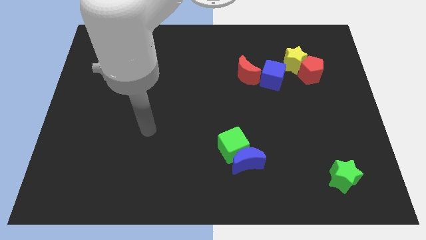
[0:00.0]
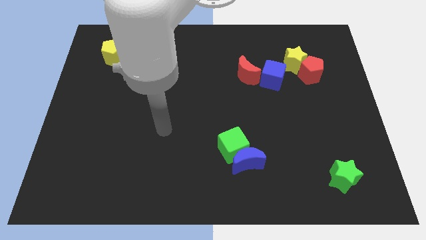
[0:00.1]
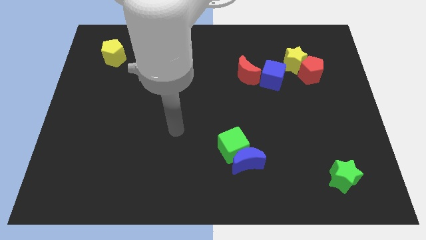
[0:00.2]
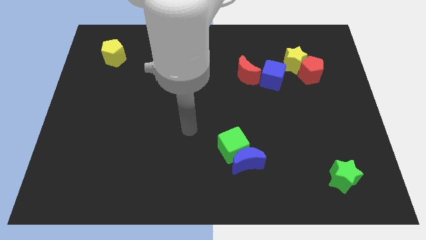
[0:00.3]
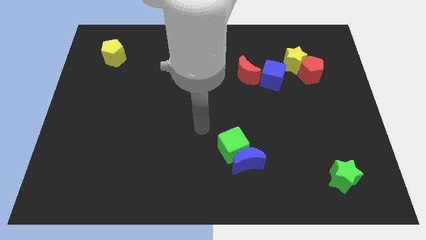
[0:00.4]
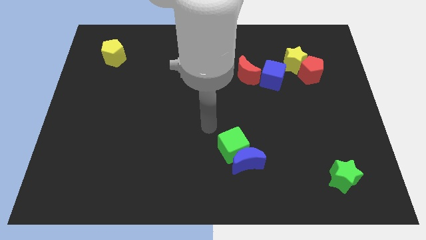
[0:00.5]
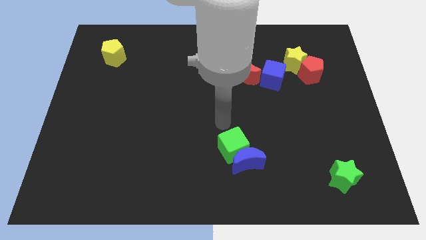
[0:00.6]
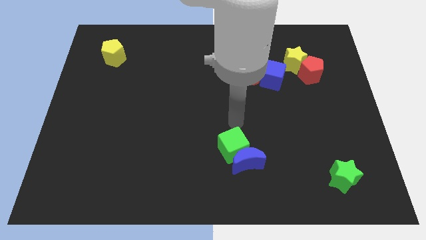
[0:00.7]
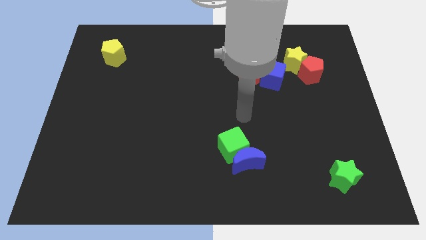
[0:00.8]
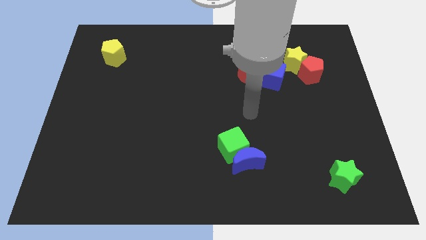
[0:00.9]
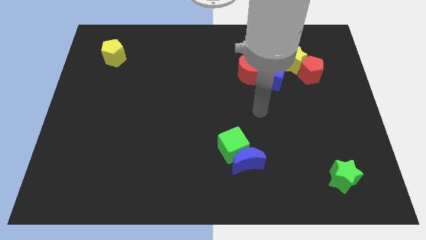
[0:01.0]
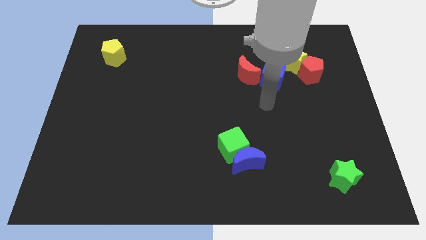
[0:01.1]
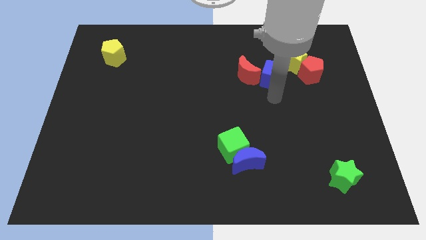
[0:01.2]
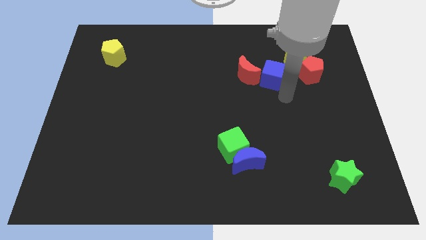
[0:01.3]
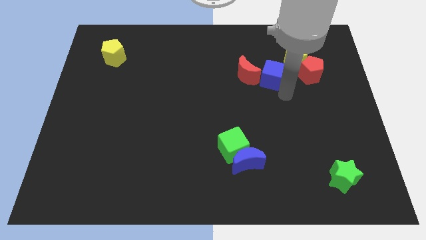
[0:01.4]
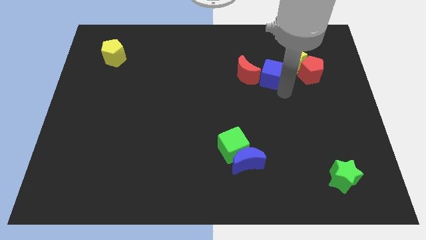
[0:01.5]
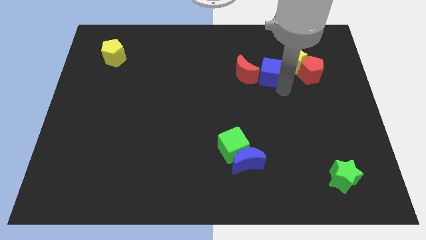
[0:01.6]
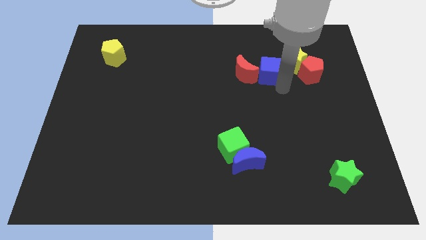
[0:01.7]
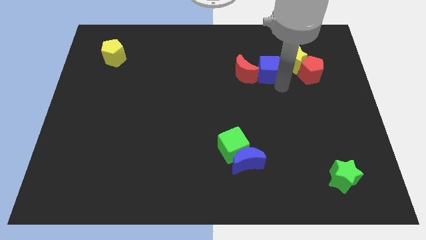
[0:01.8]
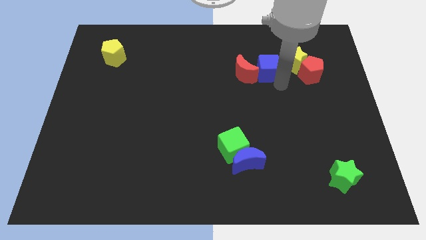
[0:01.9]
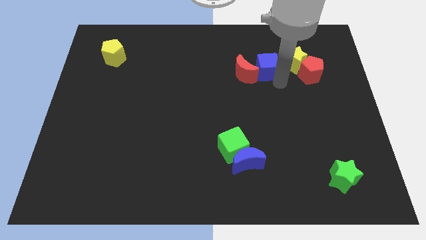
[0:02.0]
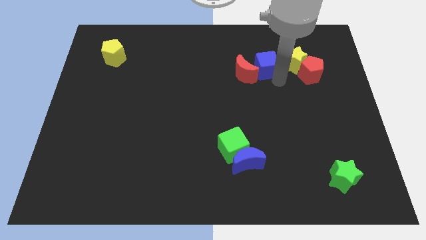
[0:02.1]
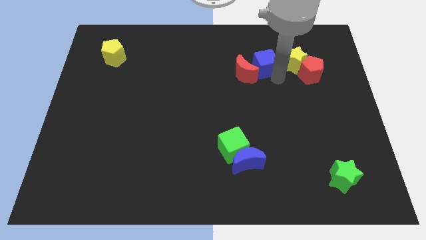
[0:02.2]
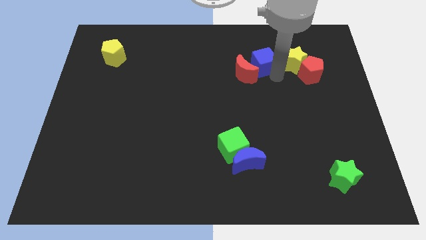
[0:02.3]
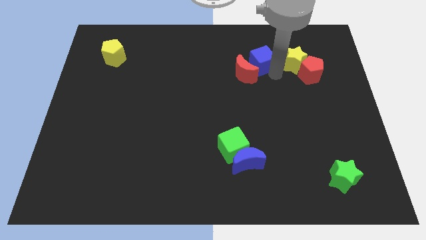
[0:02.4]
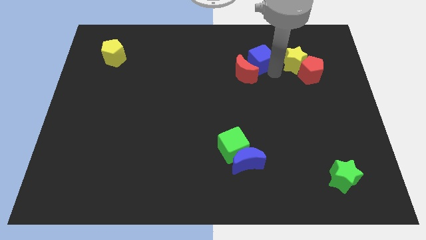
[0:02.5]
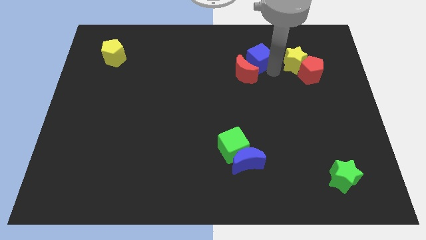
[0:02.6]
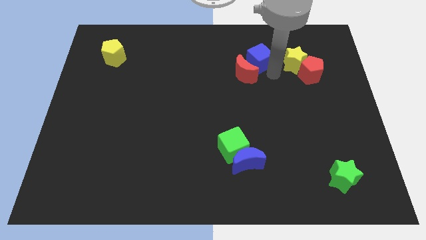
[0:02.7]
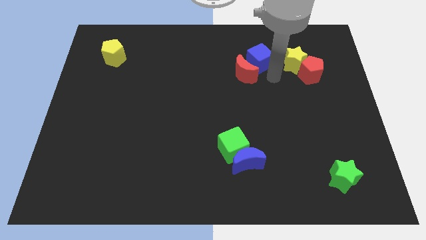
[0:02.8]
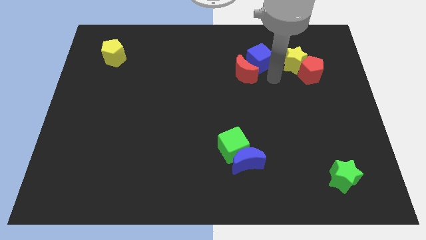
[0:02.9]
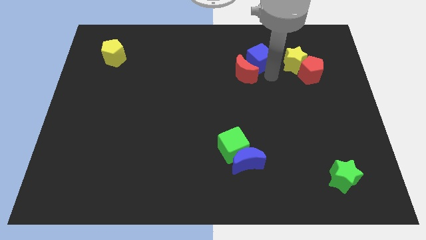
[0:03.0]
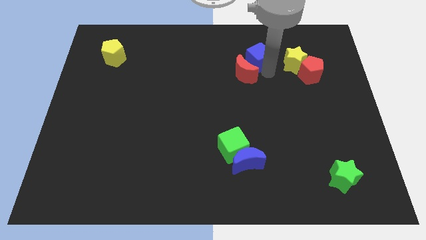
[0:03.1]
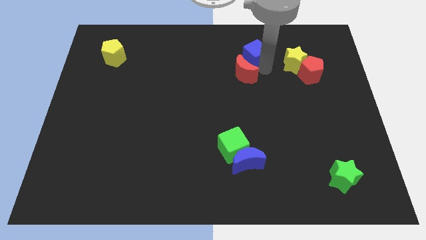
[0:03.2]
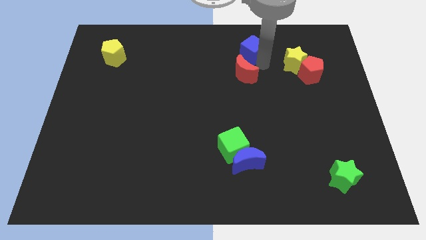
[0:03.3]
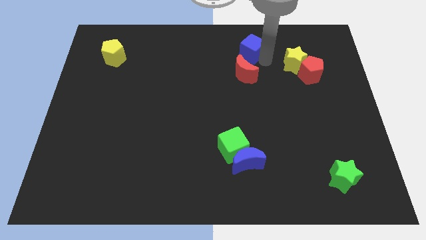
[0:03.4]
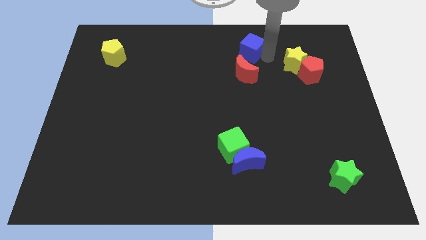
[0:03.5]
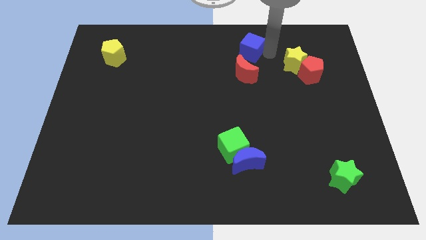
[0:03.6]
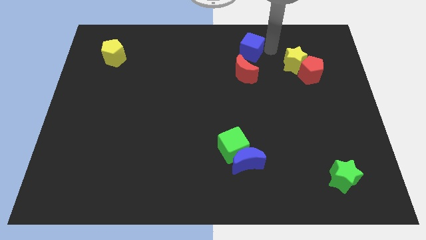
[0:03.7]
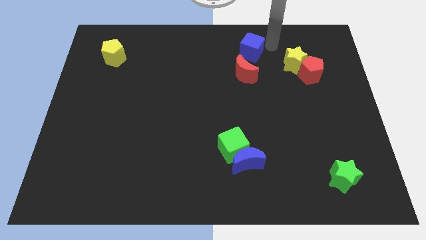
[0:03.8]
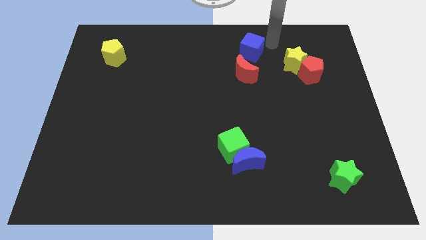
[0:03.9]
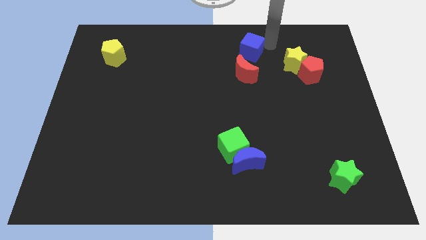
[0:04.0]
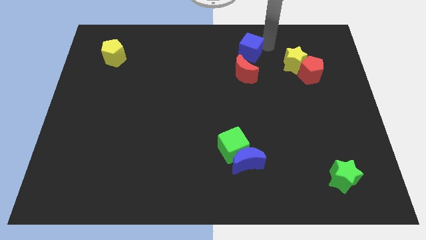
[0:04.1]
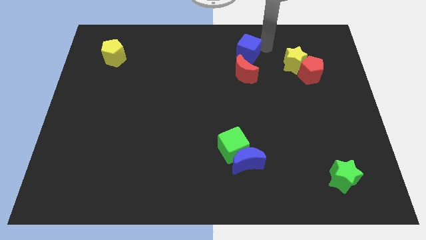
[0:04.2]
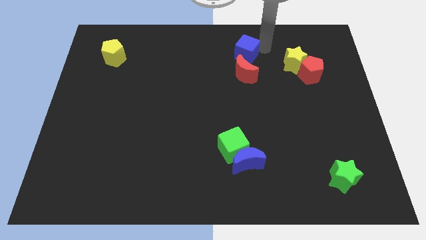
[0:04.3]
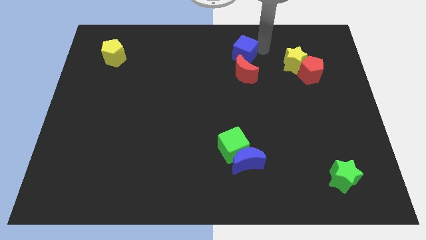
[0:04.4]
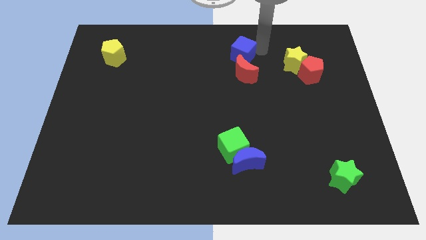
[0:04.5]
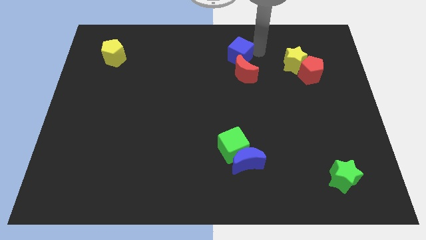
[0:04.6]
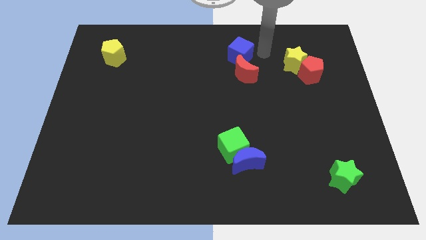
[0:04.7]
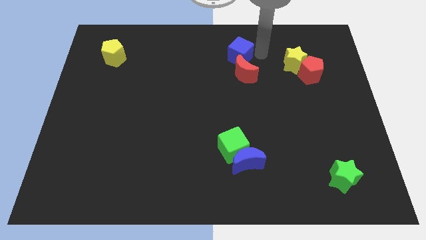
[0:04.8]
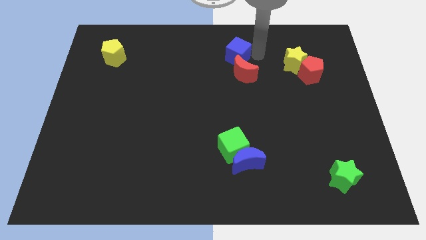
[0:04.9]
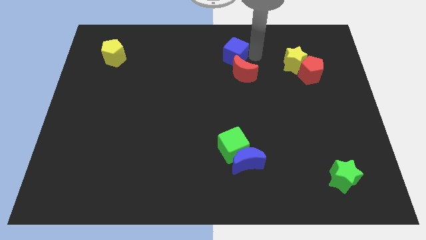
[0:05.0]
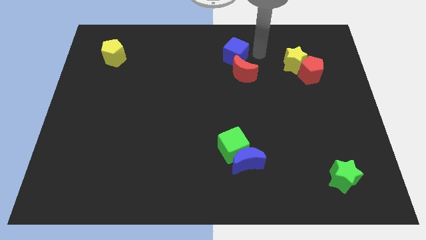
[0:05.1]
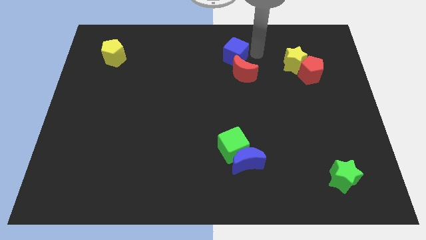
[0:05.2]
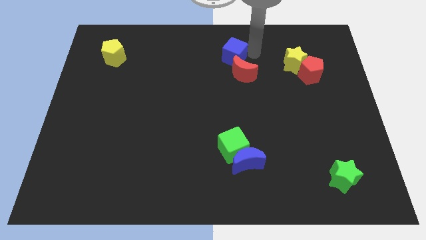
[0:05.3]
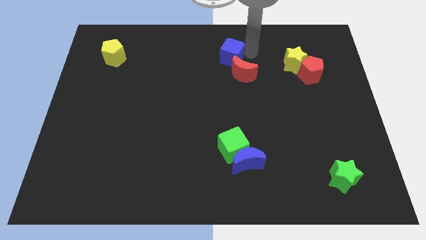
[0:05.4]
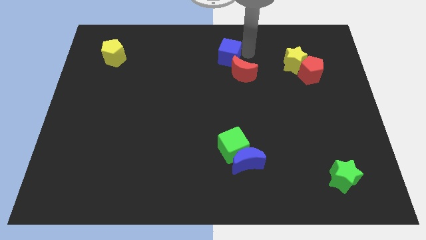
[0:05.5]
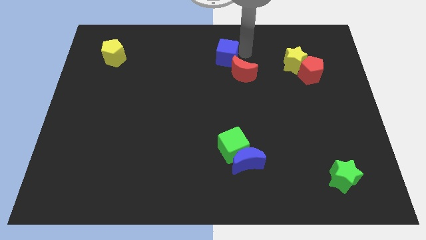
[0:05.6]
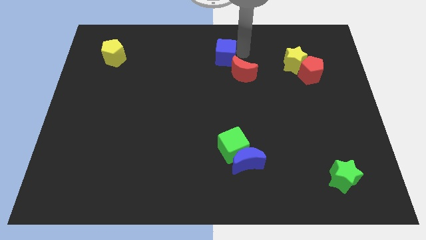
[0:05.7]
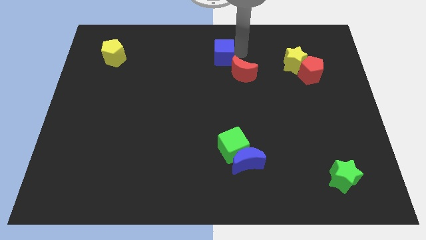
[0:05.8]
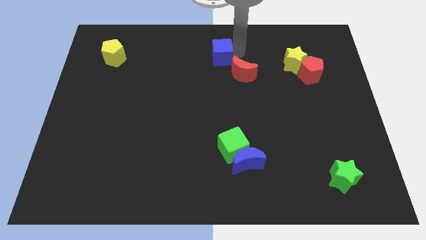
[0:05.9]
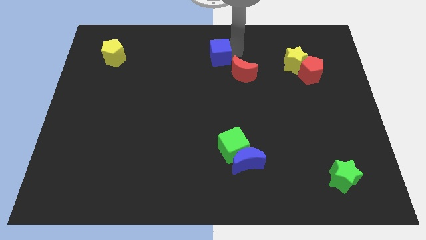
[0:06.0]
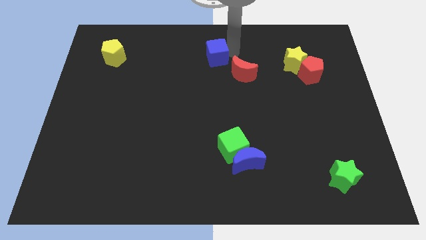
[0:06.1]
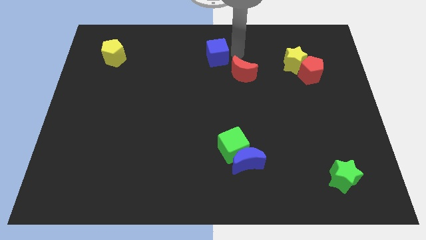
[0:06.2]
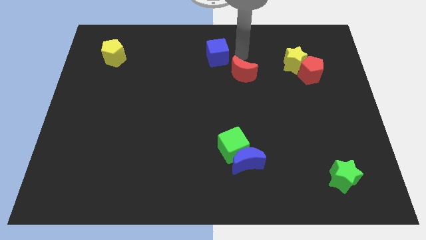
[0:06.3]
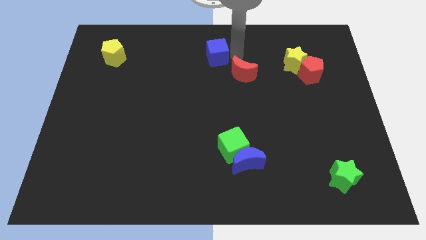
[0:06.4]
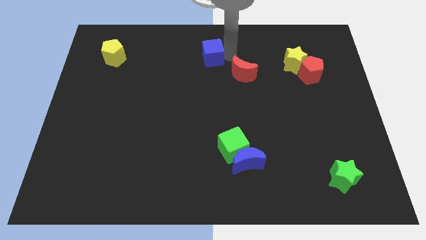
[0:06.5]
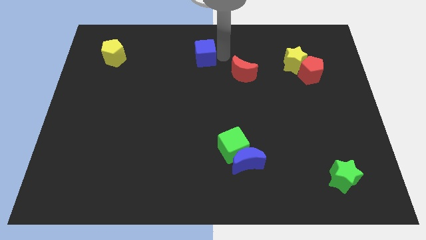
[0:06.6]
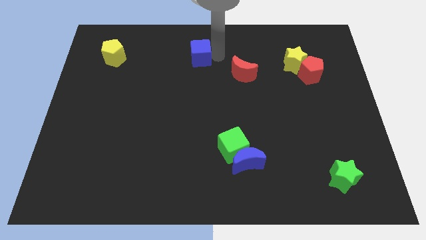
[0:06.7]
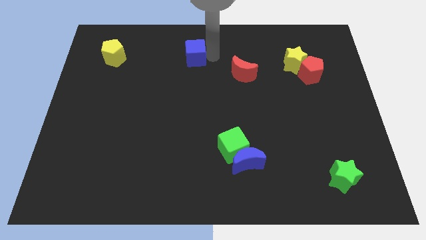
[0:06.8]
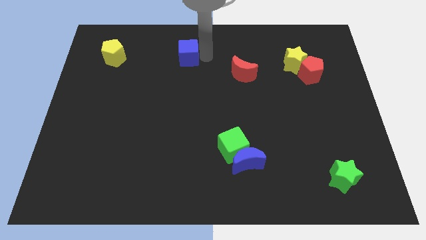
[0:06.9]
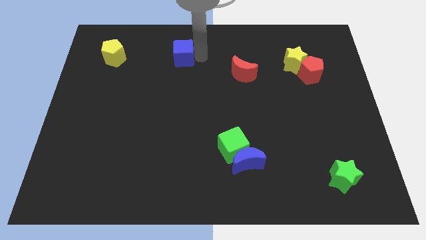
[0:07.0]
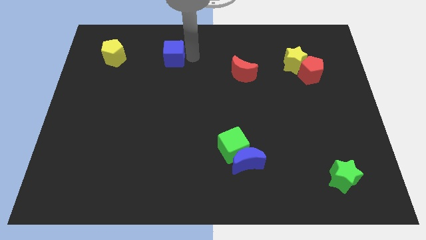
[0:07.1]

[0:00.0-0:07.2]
slide the blue cube just right of the yellow pentagon
